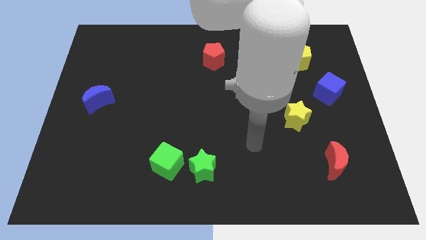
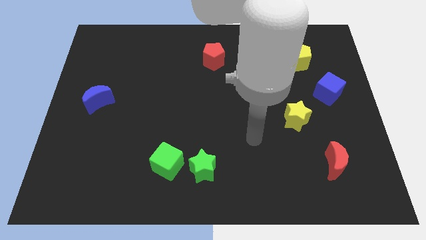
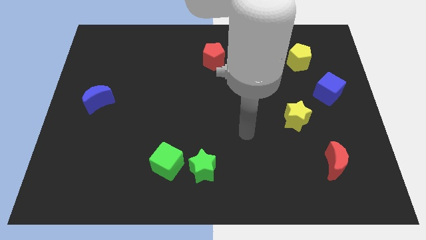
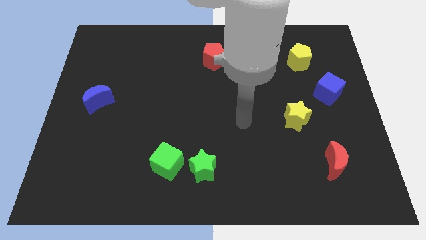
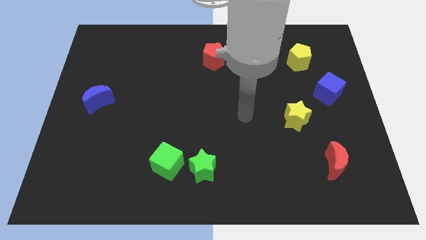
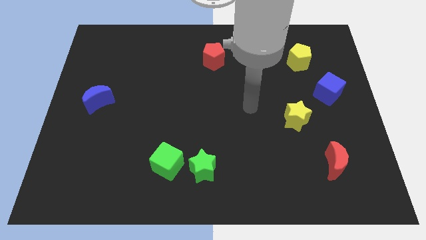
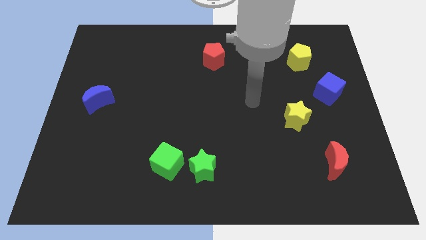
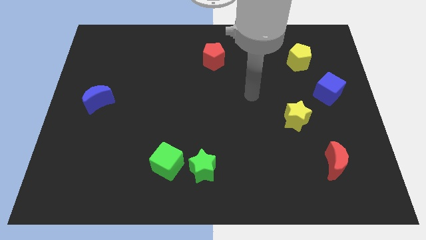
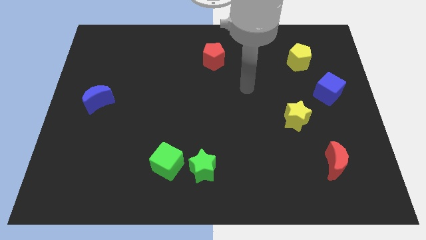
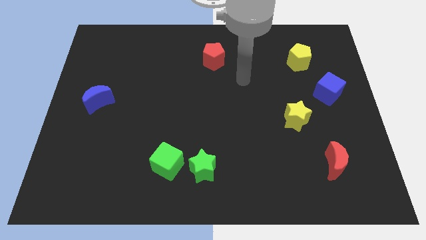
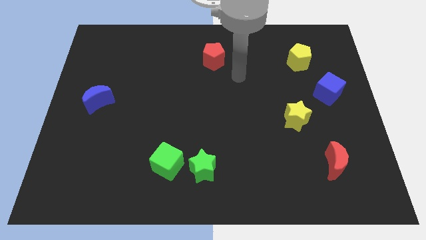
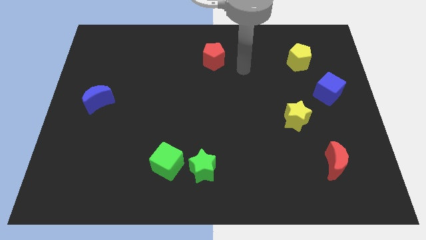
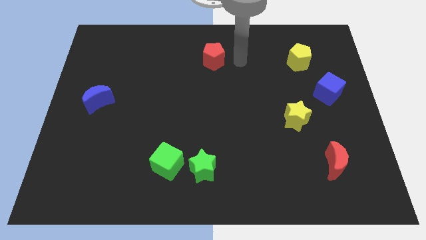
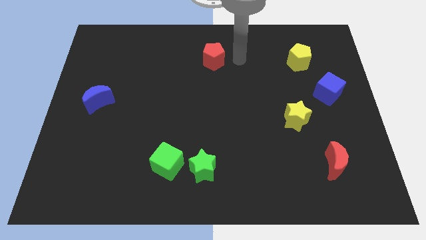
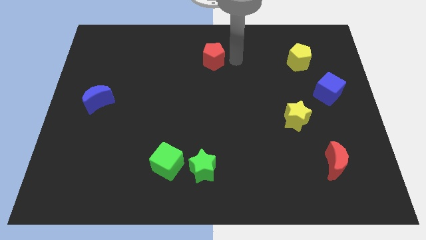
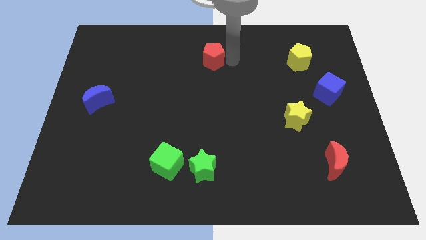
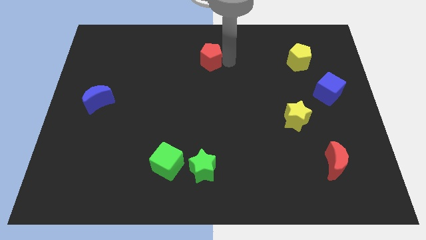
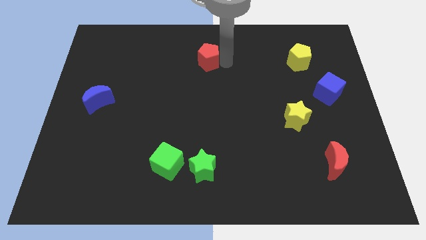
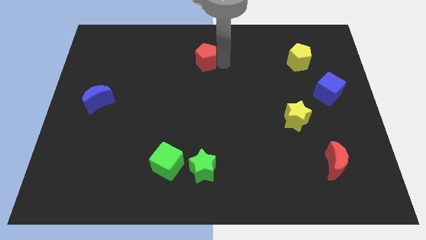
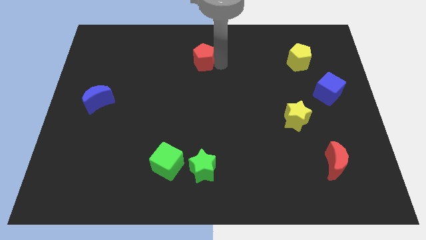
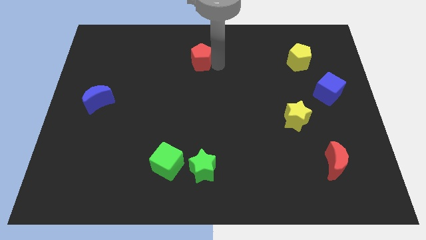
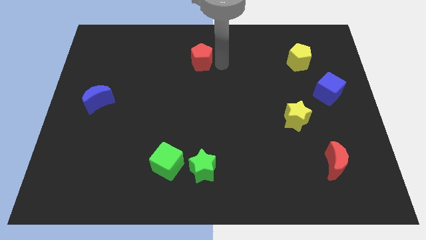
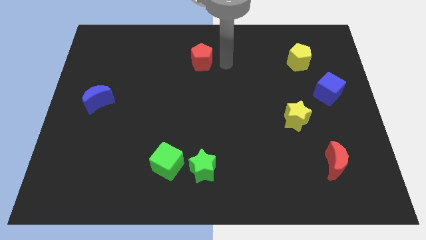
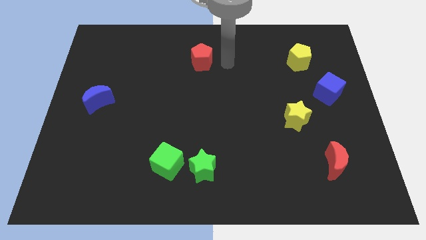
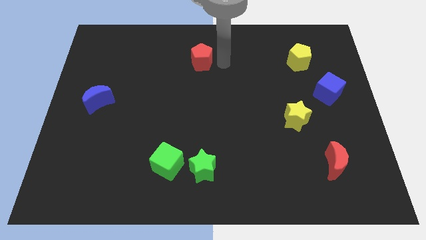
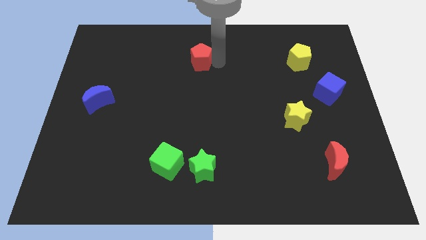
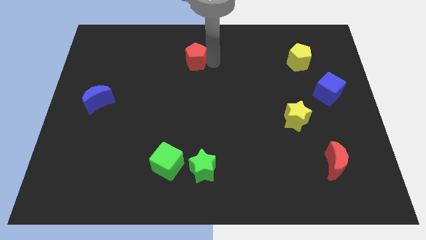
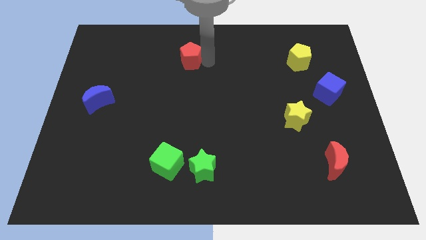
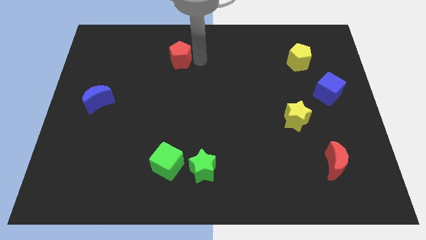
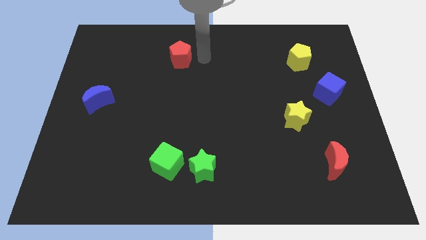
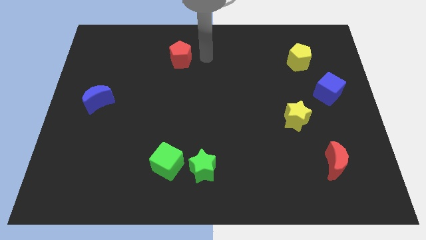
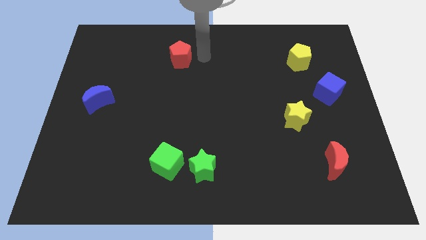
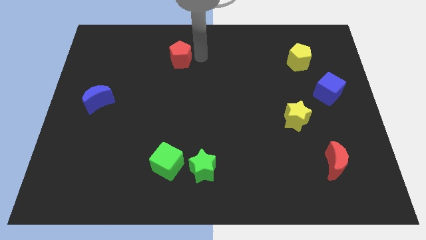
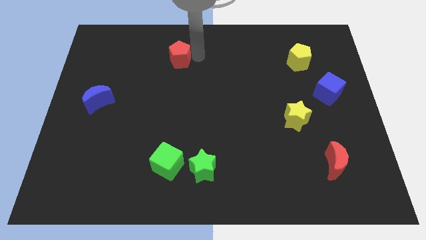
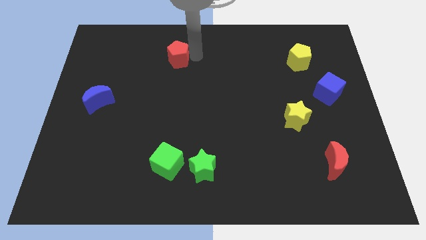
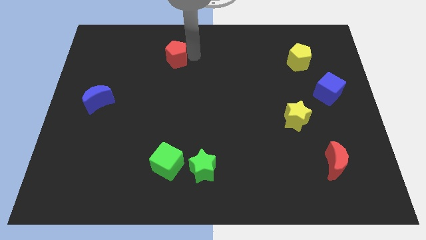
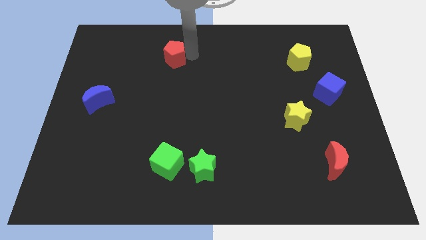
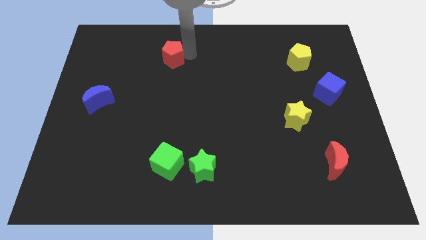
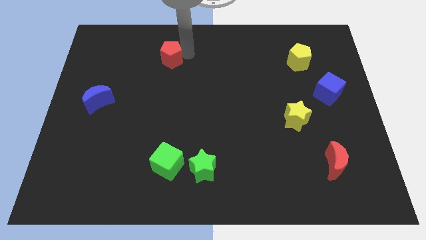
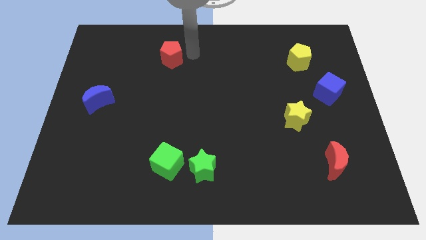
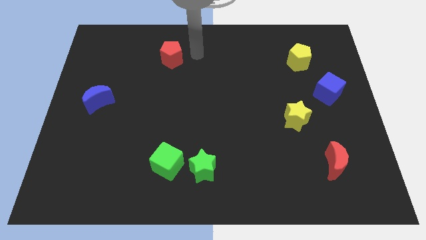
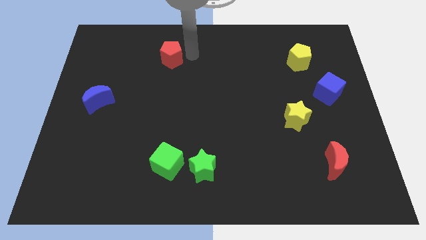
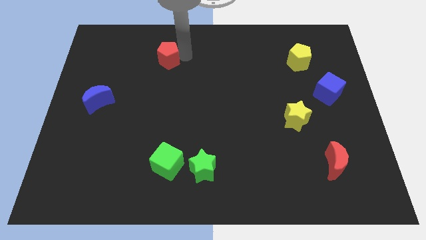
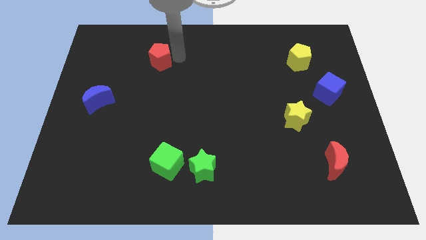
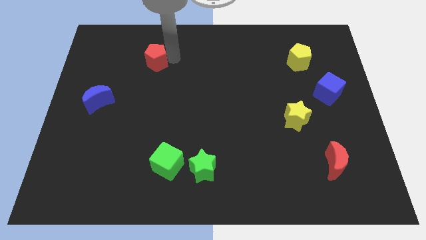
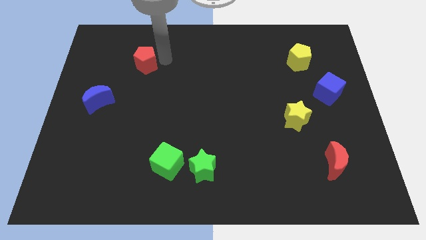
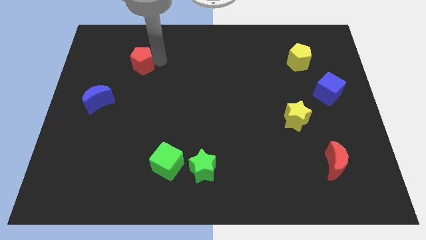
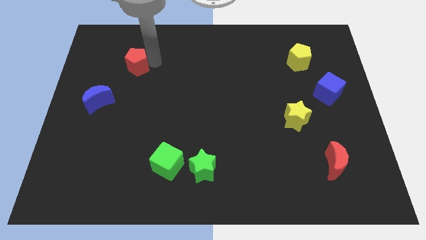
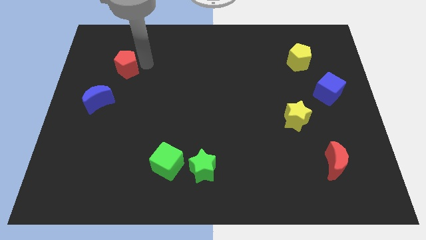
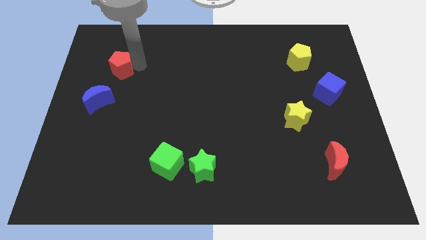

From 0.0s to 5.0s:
move the red pentagon to the top of the blue moon

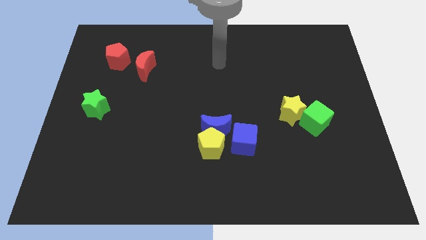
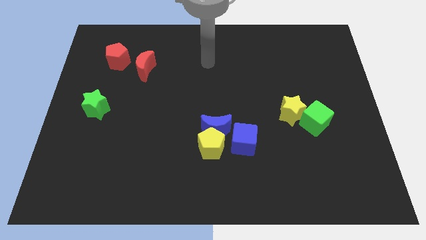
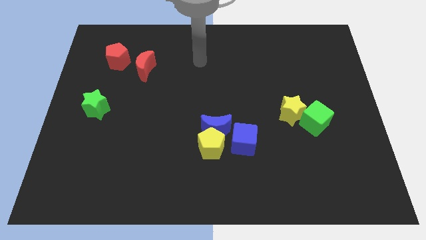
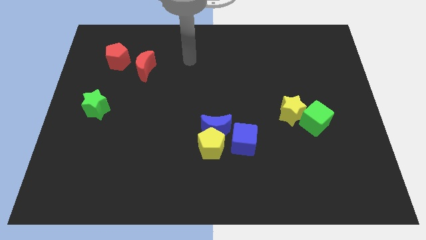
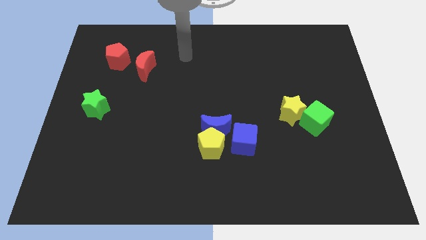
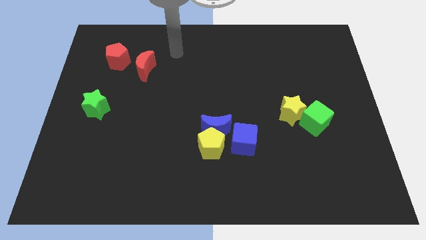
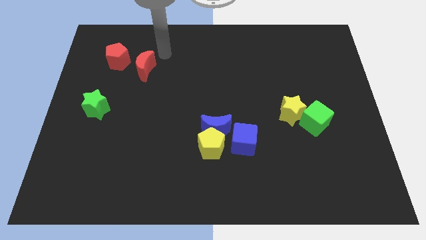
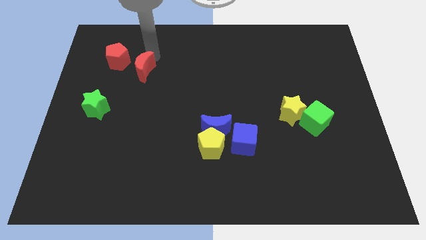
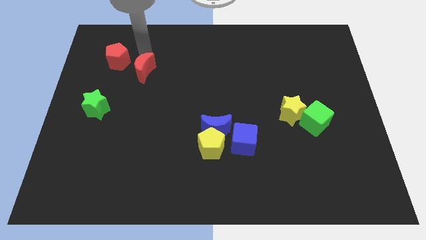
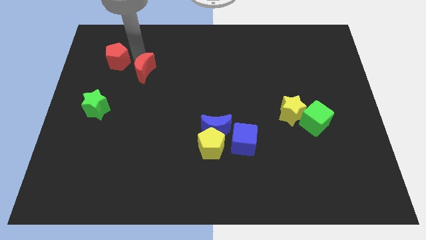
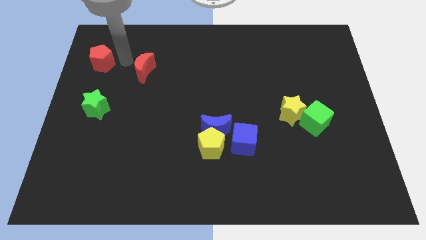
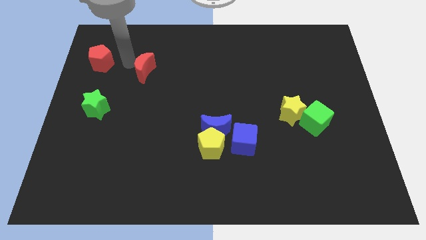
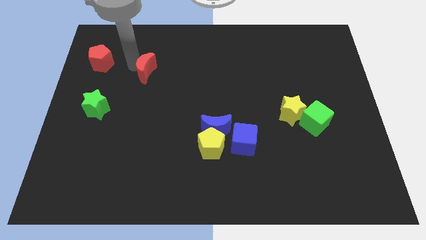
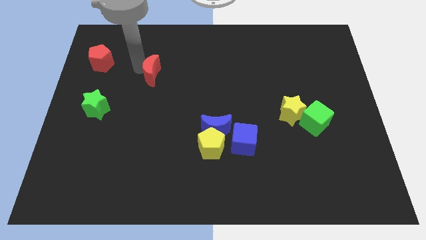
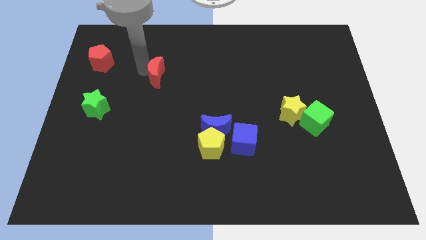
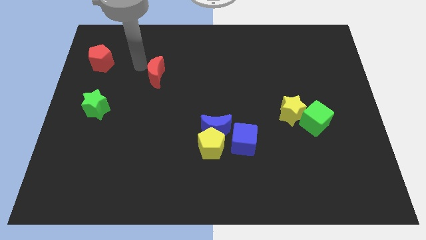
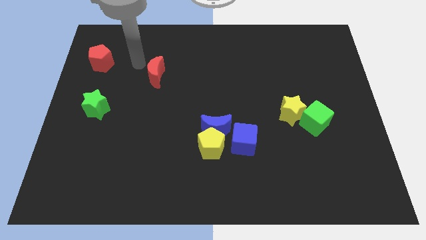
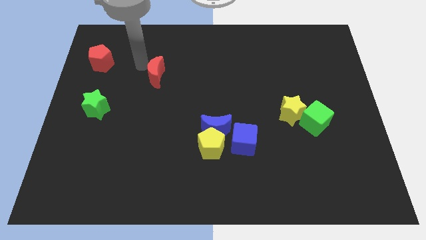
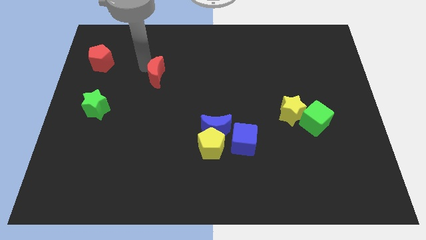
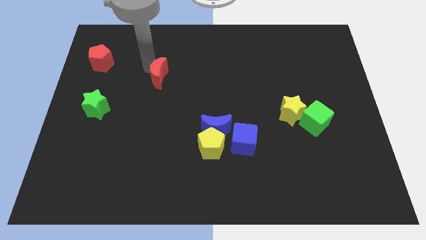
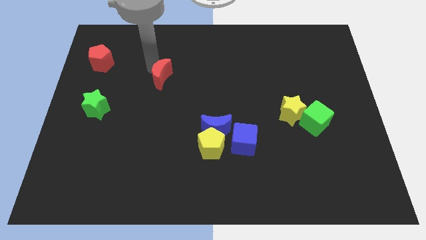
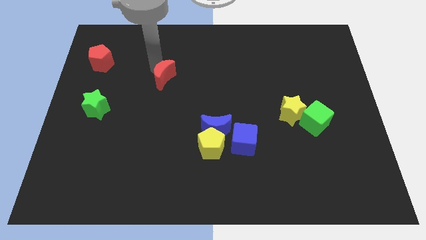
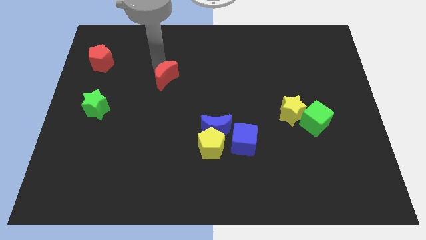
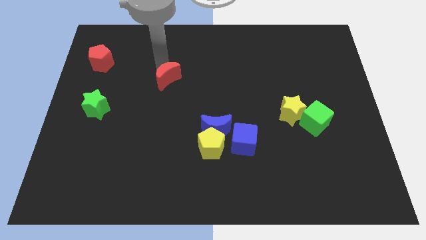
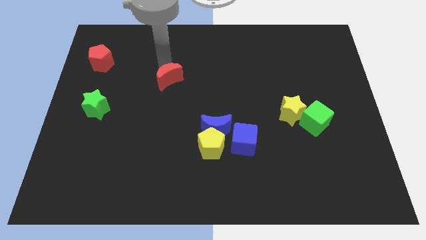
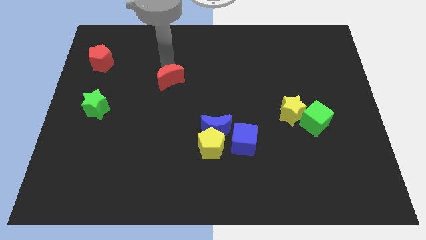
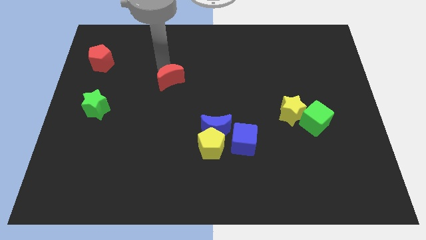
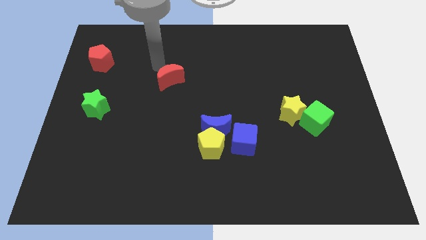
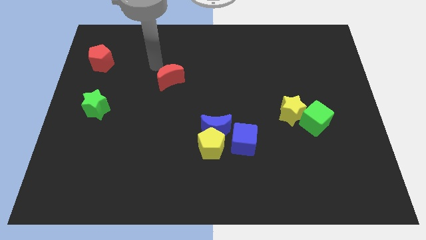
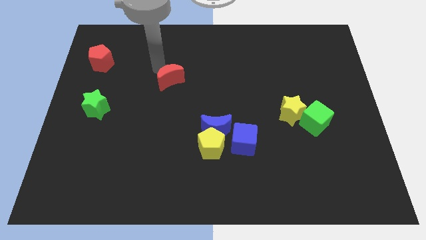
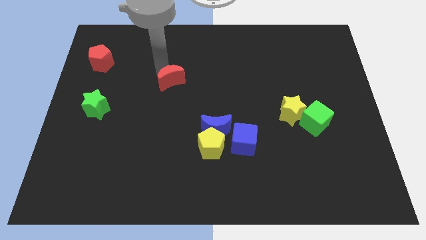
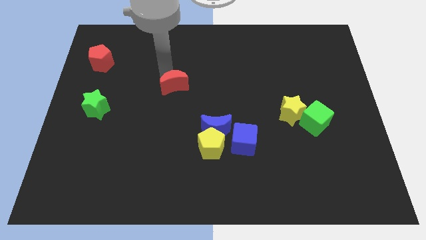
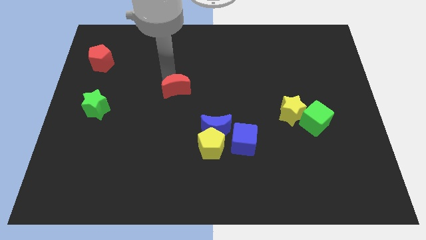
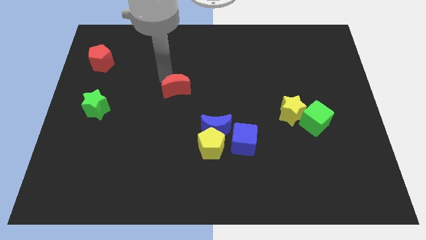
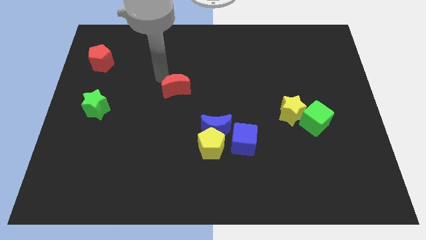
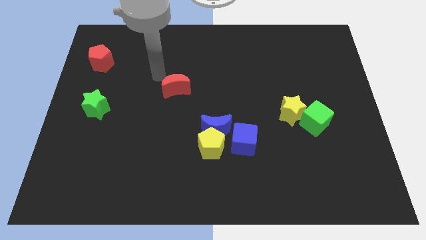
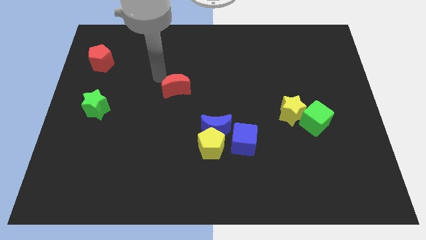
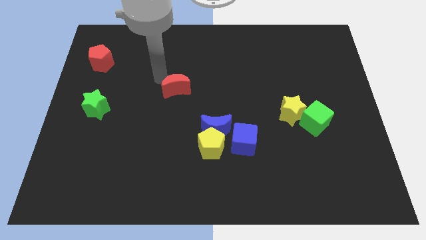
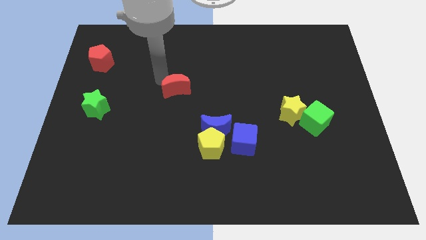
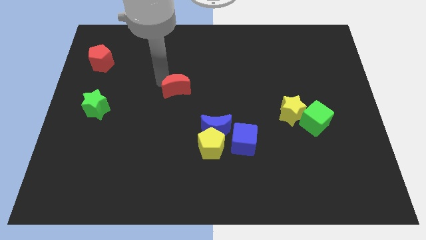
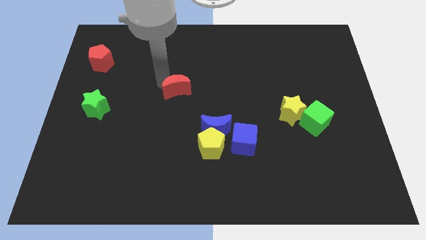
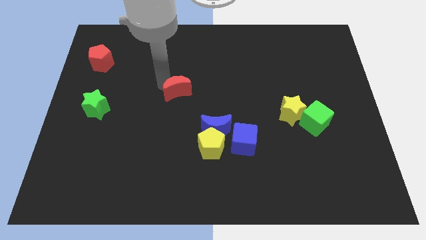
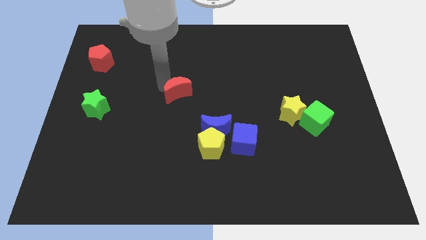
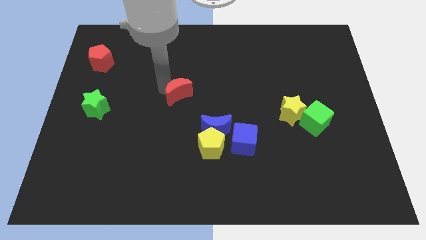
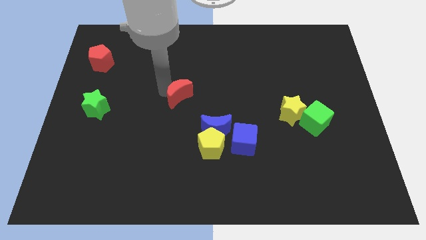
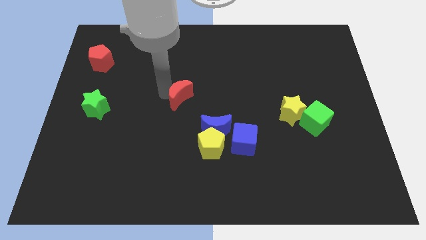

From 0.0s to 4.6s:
put the red moon to the top left of the blue moon
